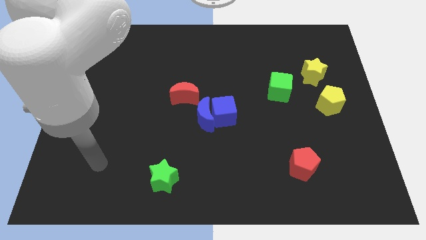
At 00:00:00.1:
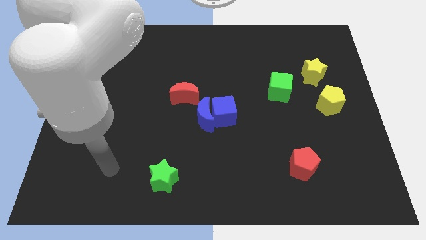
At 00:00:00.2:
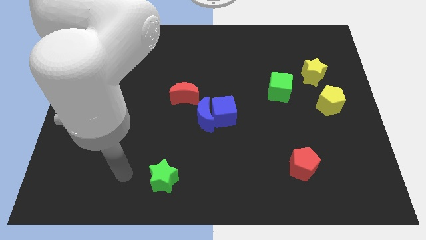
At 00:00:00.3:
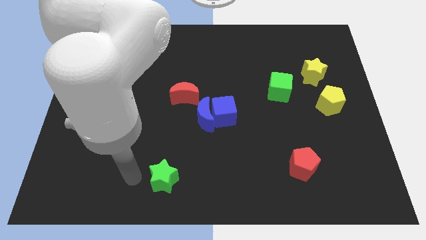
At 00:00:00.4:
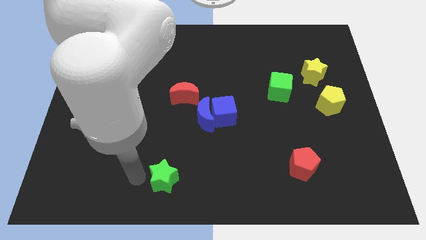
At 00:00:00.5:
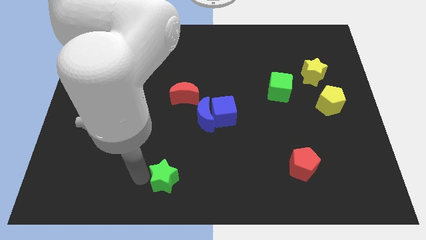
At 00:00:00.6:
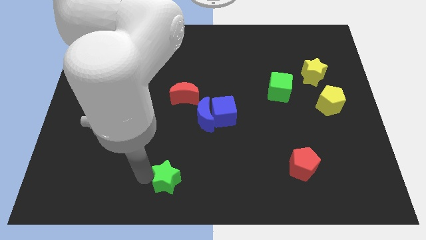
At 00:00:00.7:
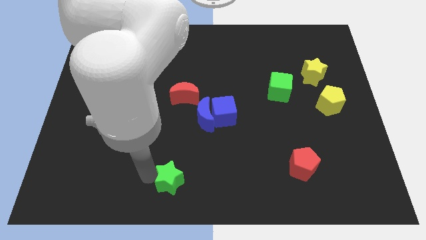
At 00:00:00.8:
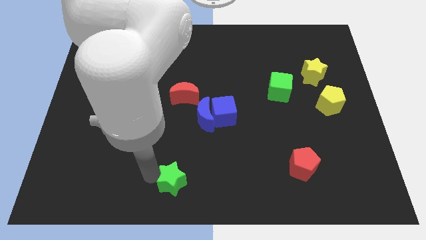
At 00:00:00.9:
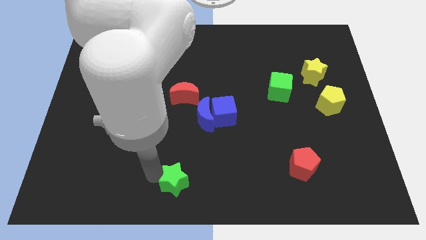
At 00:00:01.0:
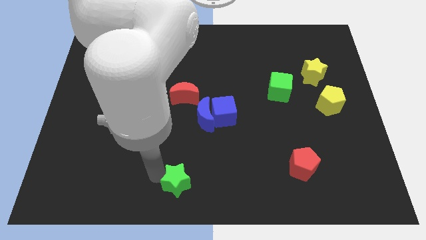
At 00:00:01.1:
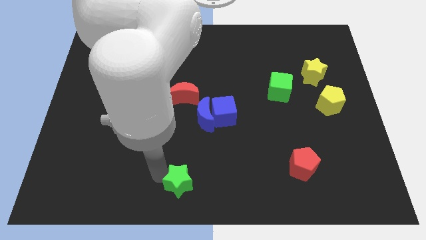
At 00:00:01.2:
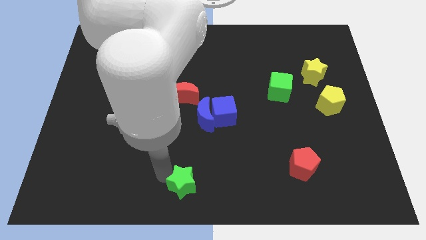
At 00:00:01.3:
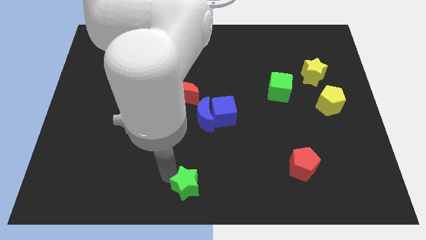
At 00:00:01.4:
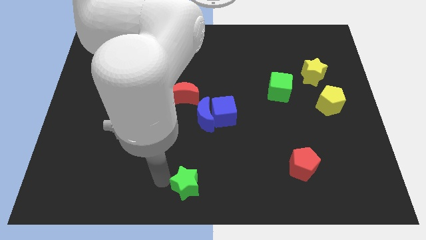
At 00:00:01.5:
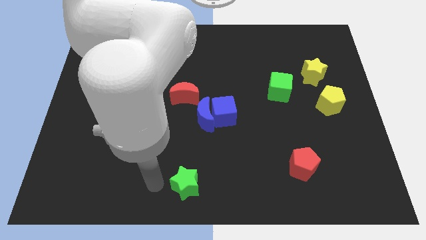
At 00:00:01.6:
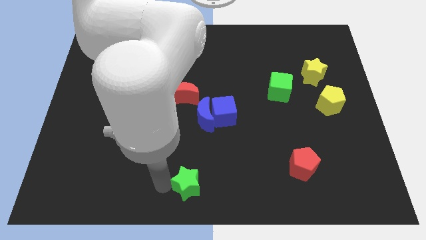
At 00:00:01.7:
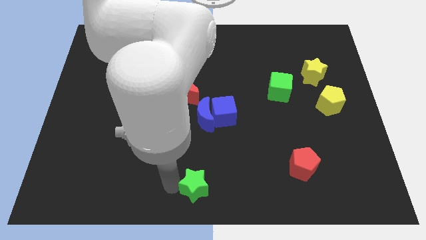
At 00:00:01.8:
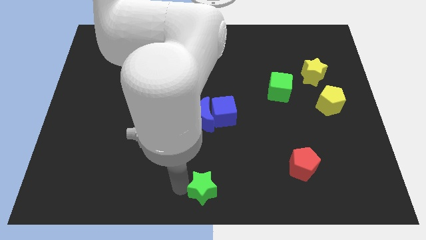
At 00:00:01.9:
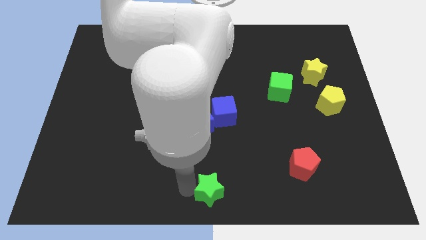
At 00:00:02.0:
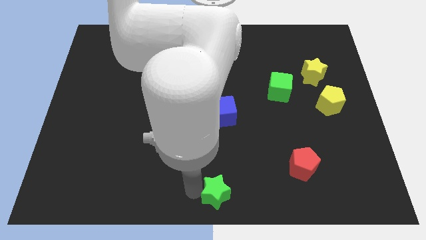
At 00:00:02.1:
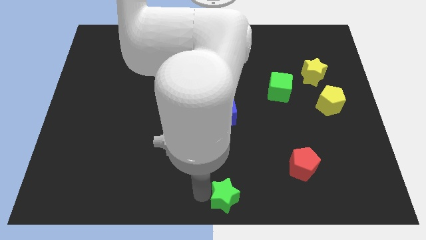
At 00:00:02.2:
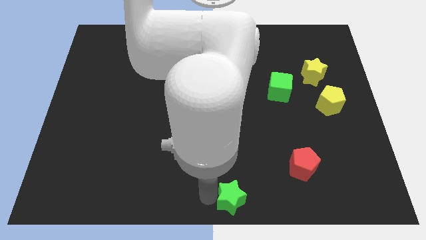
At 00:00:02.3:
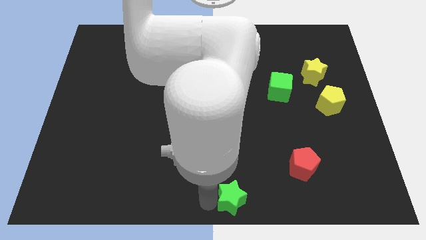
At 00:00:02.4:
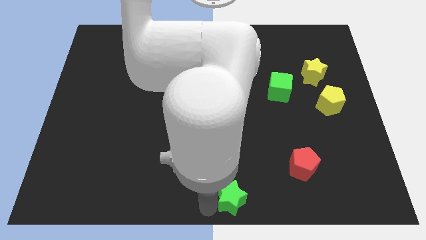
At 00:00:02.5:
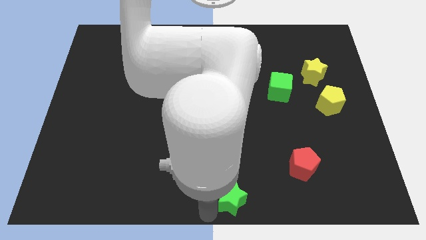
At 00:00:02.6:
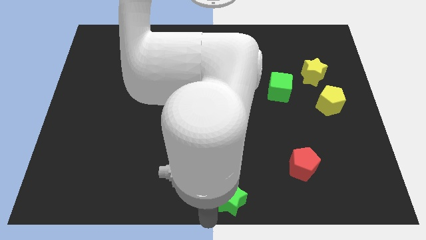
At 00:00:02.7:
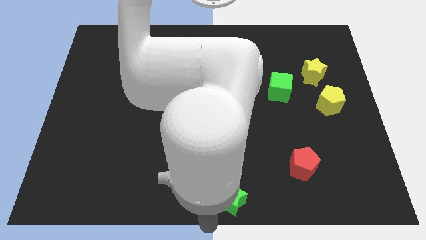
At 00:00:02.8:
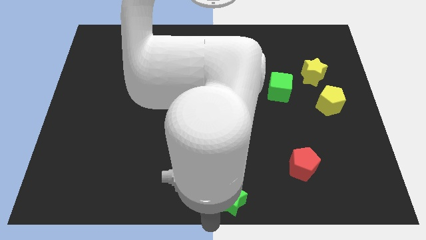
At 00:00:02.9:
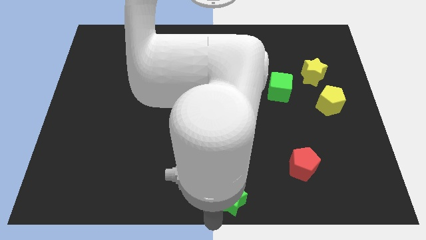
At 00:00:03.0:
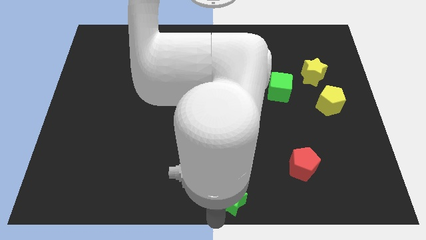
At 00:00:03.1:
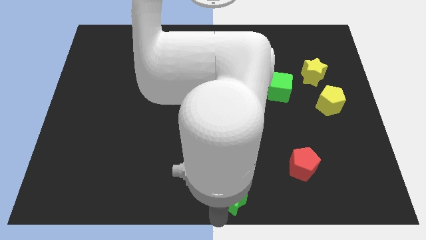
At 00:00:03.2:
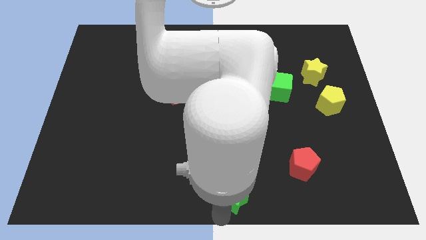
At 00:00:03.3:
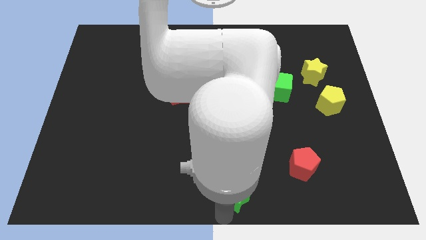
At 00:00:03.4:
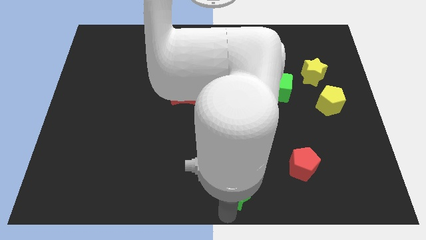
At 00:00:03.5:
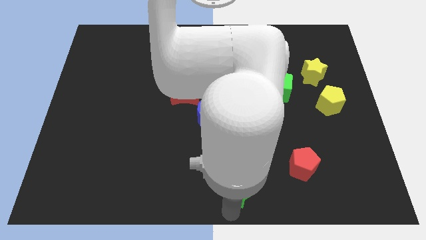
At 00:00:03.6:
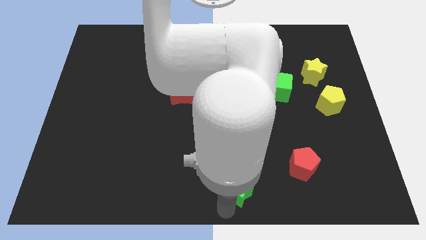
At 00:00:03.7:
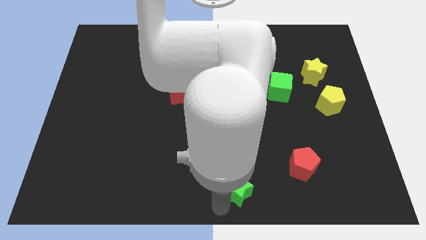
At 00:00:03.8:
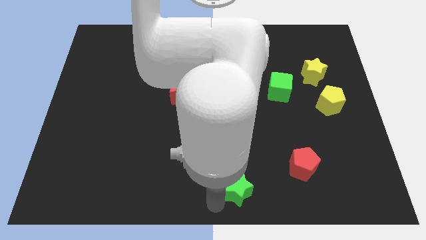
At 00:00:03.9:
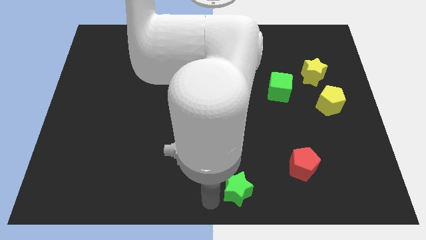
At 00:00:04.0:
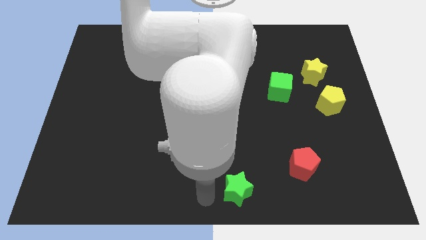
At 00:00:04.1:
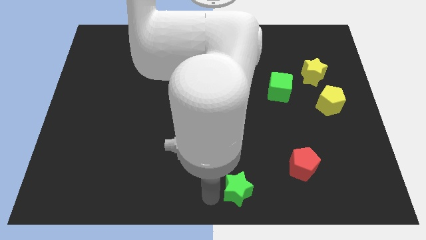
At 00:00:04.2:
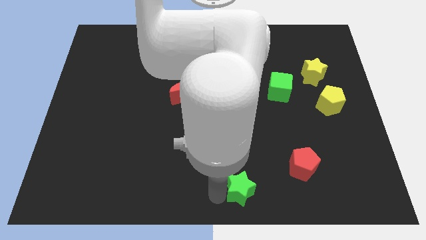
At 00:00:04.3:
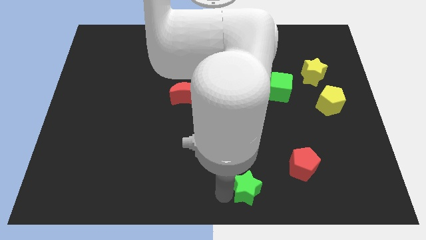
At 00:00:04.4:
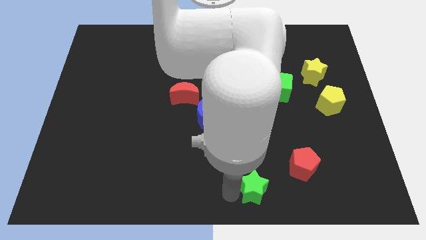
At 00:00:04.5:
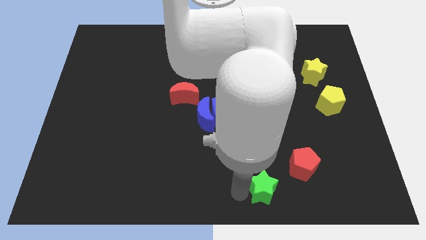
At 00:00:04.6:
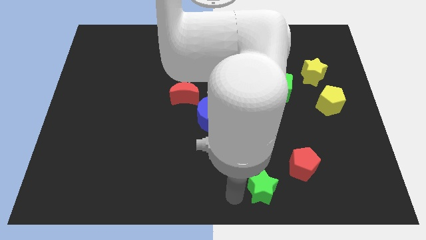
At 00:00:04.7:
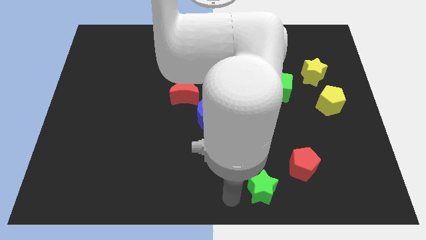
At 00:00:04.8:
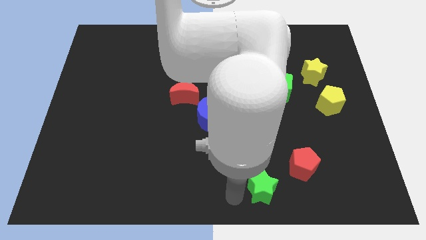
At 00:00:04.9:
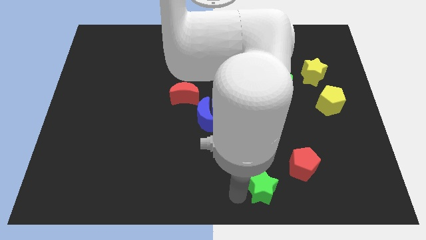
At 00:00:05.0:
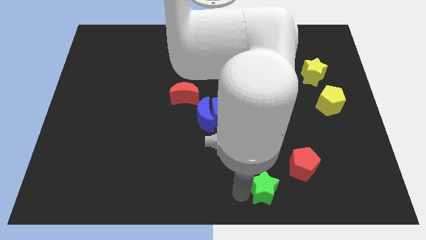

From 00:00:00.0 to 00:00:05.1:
push the green star to the right

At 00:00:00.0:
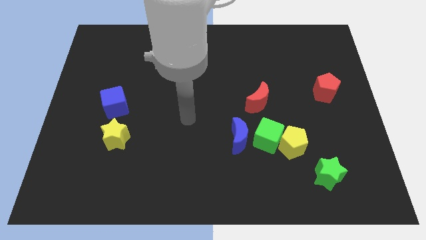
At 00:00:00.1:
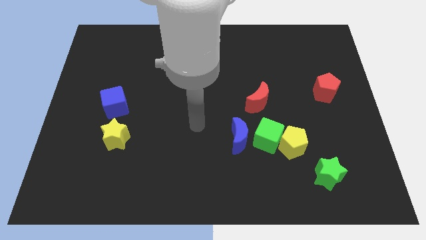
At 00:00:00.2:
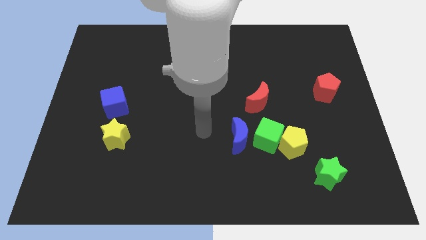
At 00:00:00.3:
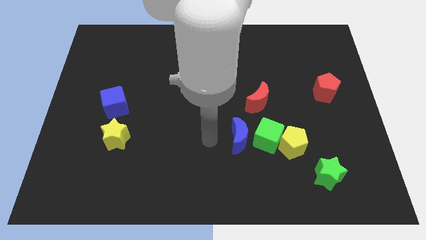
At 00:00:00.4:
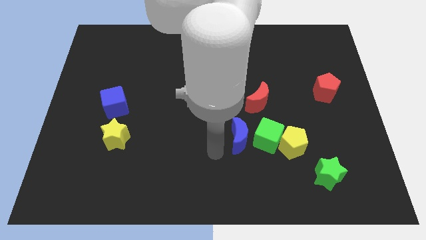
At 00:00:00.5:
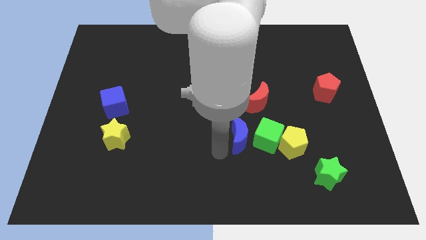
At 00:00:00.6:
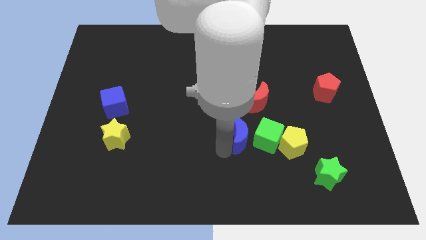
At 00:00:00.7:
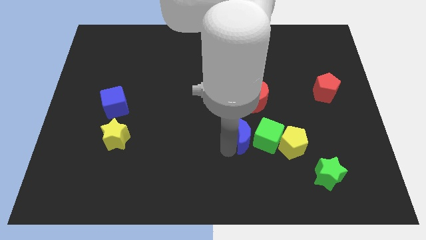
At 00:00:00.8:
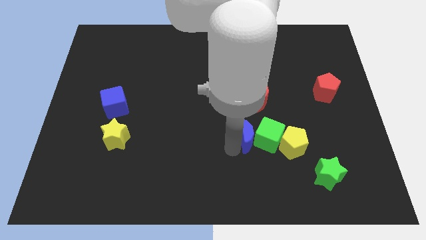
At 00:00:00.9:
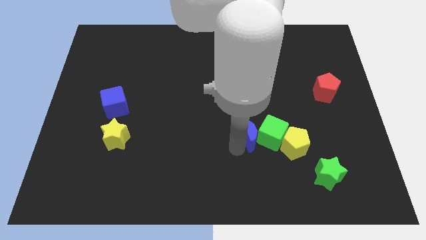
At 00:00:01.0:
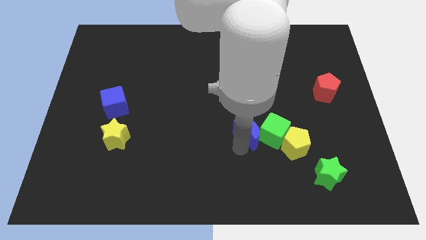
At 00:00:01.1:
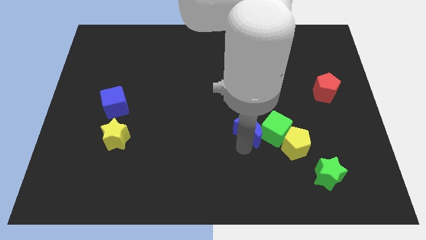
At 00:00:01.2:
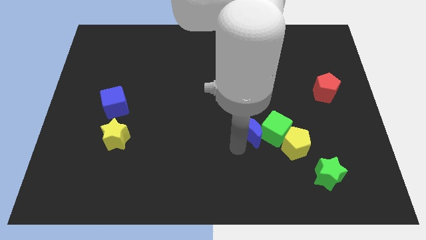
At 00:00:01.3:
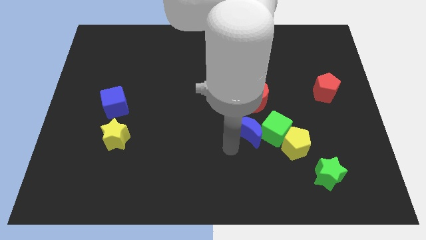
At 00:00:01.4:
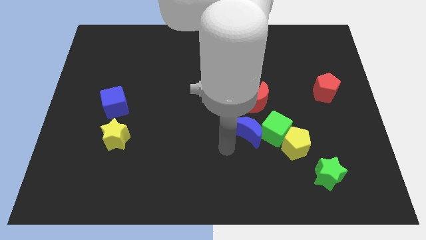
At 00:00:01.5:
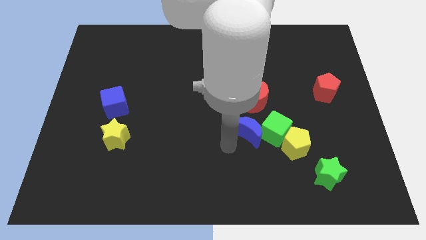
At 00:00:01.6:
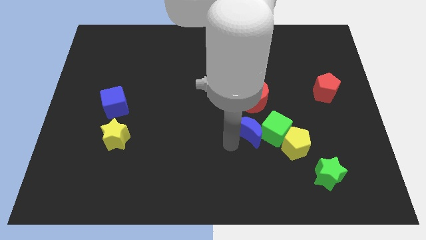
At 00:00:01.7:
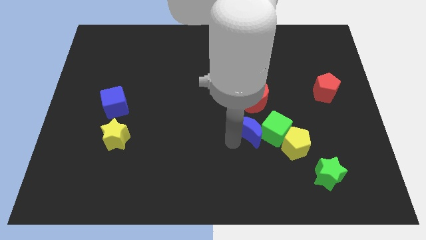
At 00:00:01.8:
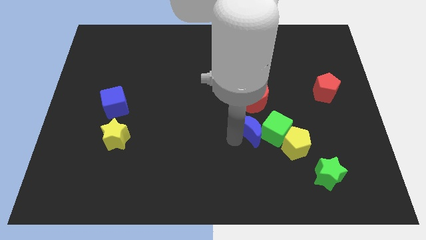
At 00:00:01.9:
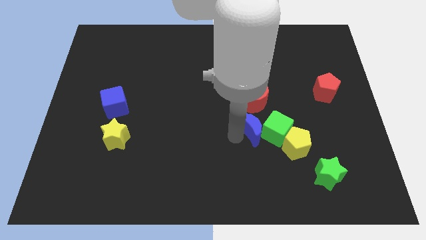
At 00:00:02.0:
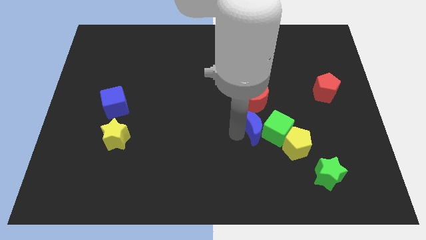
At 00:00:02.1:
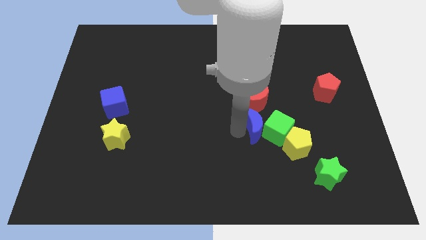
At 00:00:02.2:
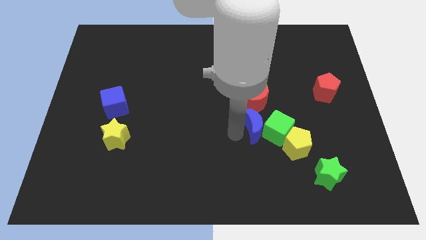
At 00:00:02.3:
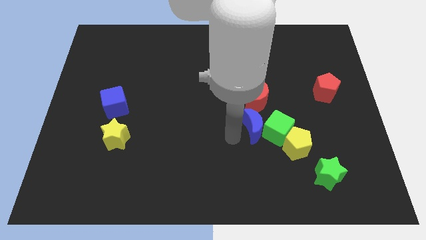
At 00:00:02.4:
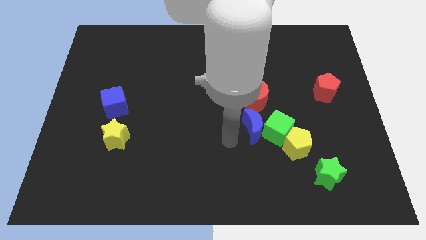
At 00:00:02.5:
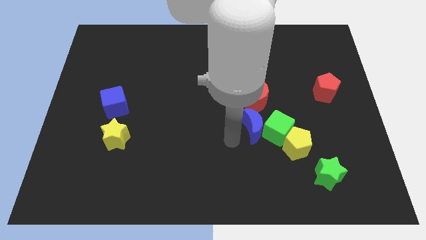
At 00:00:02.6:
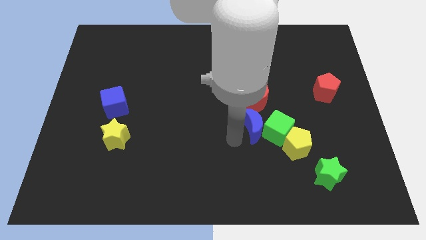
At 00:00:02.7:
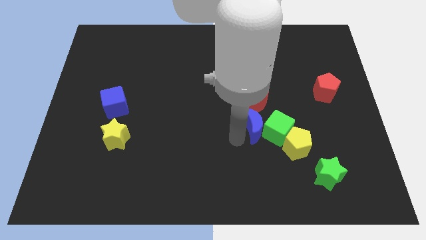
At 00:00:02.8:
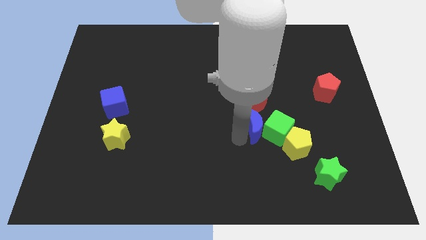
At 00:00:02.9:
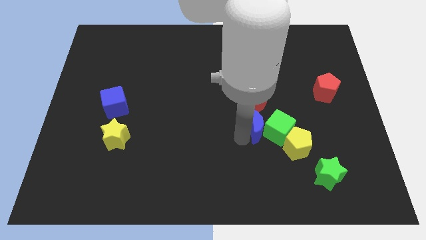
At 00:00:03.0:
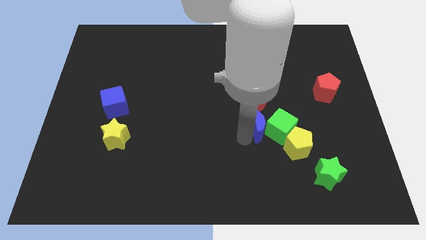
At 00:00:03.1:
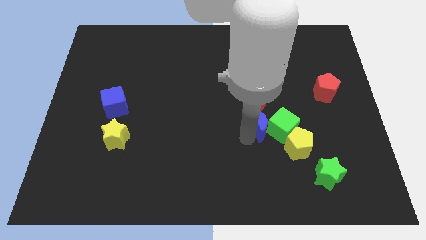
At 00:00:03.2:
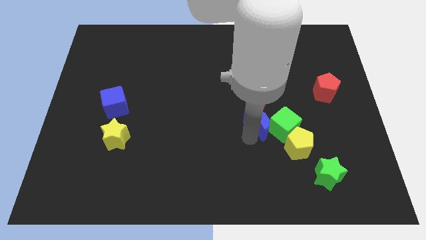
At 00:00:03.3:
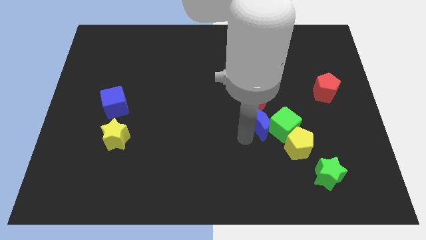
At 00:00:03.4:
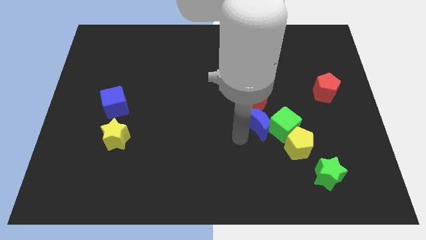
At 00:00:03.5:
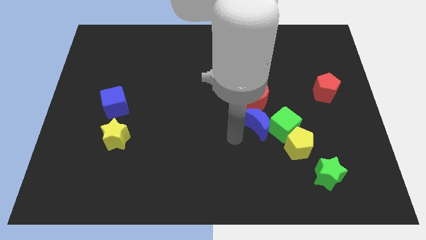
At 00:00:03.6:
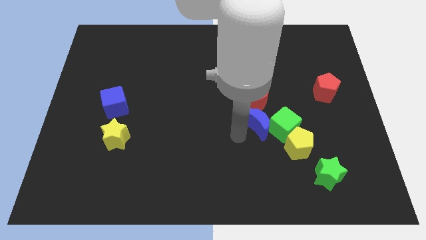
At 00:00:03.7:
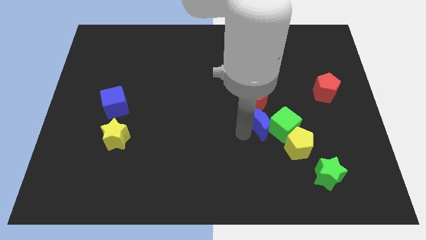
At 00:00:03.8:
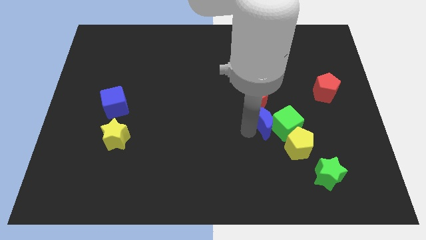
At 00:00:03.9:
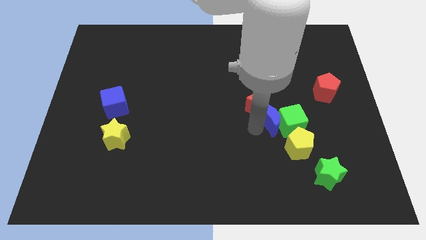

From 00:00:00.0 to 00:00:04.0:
slide the blue moon a little up and then right
